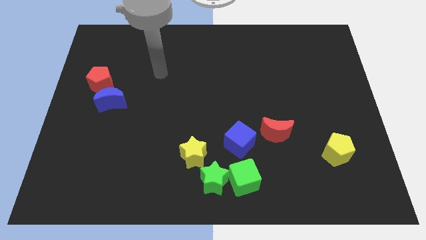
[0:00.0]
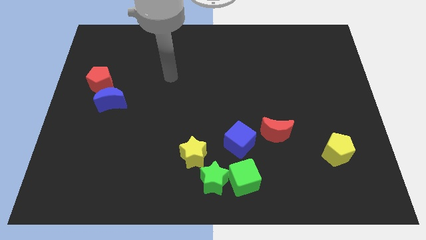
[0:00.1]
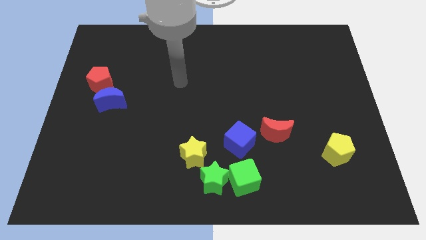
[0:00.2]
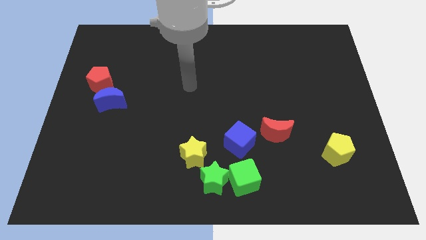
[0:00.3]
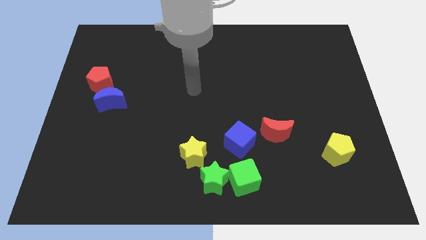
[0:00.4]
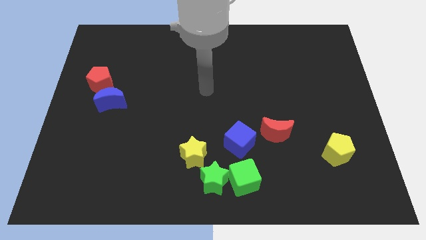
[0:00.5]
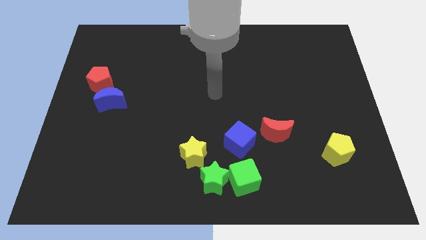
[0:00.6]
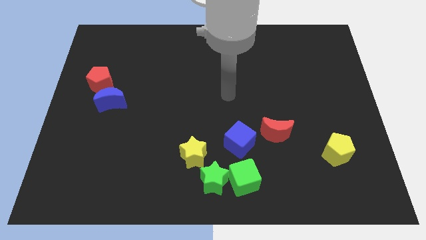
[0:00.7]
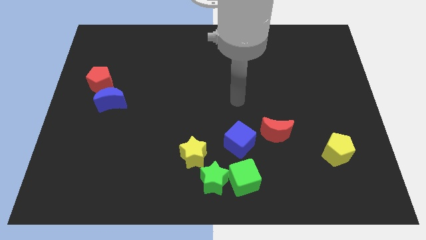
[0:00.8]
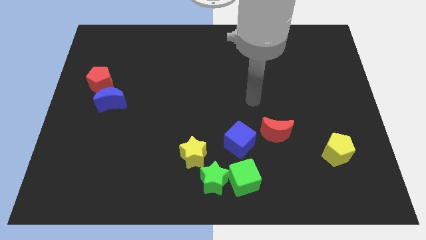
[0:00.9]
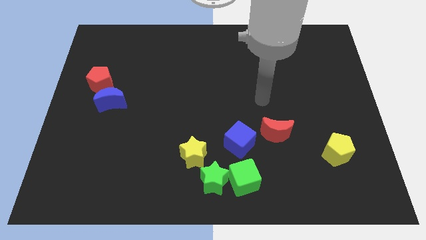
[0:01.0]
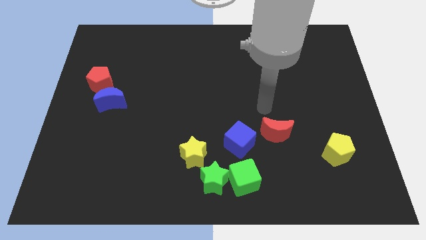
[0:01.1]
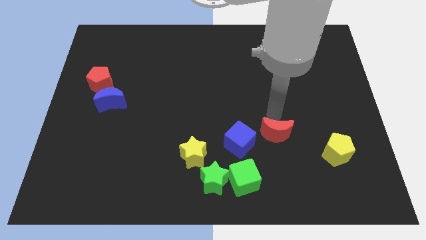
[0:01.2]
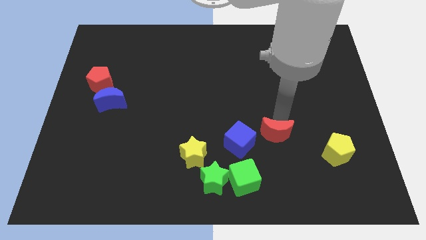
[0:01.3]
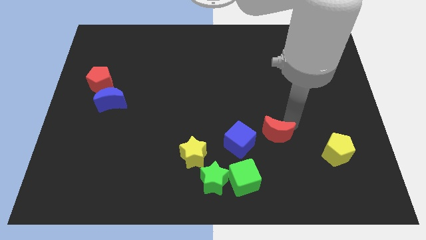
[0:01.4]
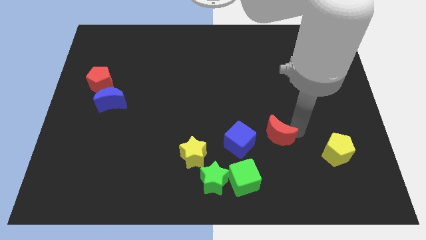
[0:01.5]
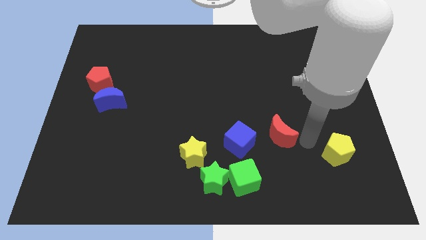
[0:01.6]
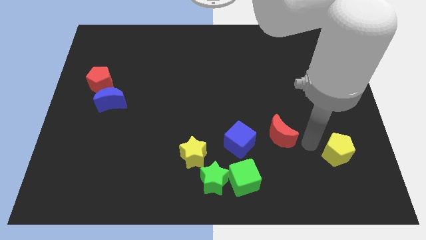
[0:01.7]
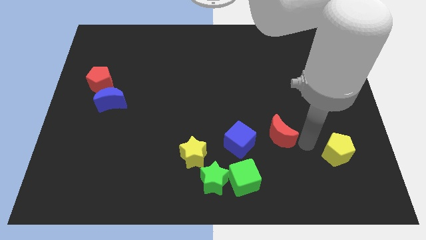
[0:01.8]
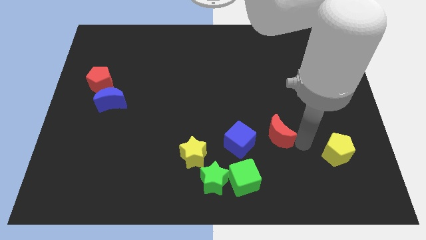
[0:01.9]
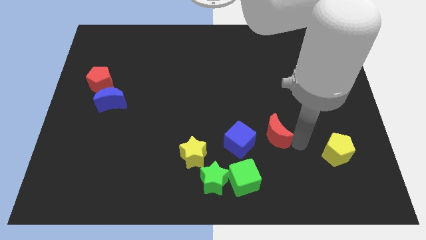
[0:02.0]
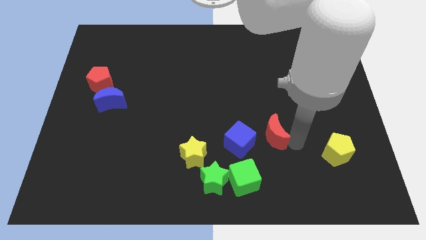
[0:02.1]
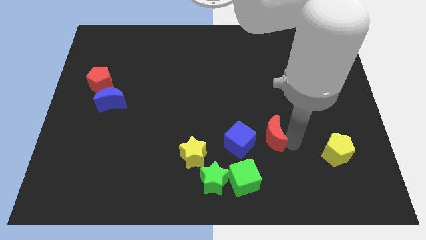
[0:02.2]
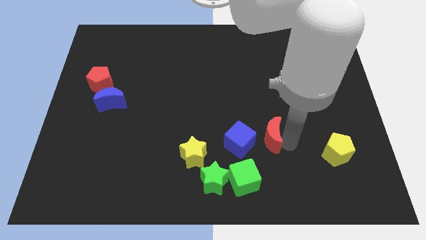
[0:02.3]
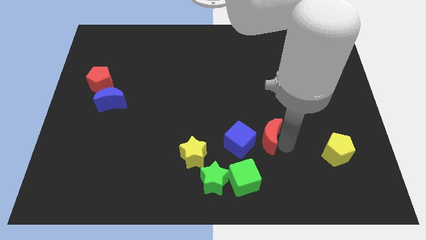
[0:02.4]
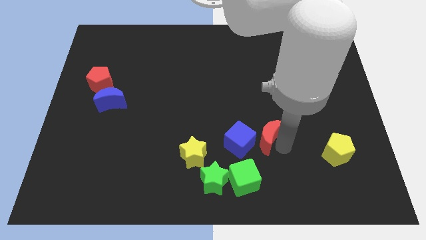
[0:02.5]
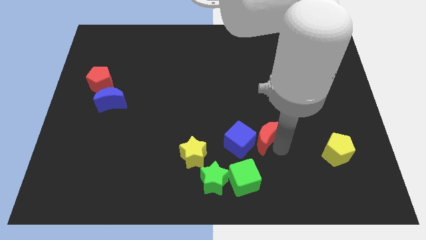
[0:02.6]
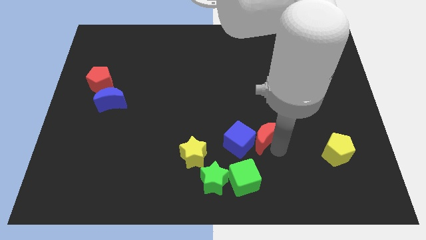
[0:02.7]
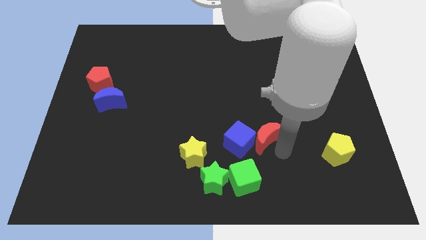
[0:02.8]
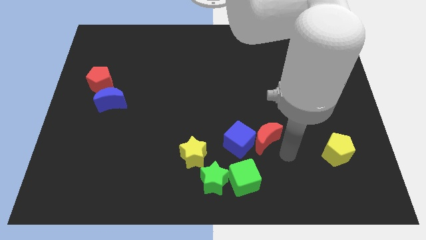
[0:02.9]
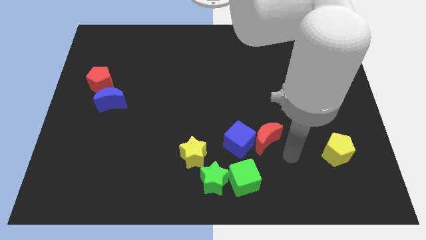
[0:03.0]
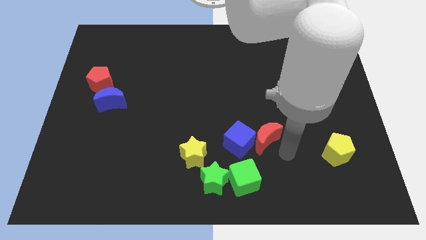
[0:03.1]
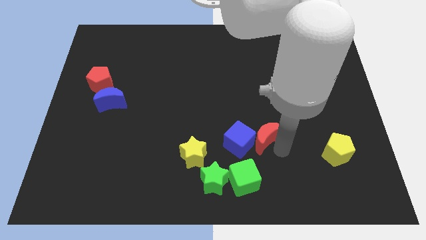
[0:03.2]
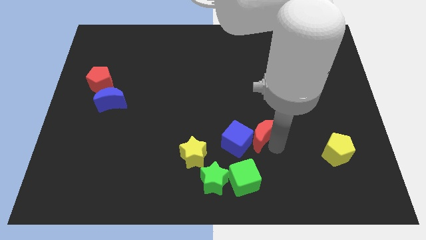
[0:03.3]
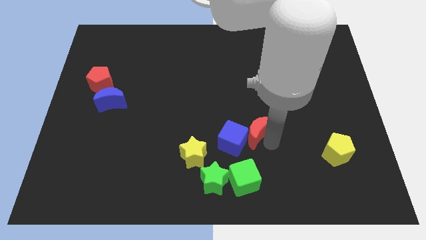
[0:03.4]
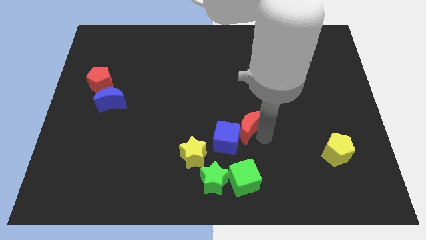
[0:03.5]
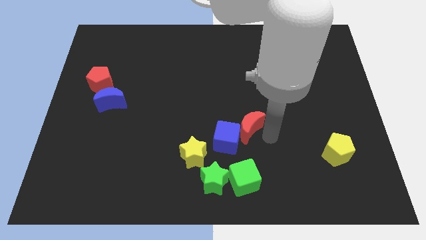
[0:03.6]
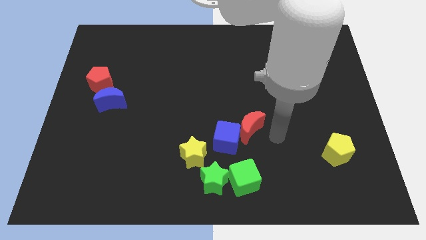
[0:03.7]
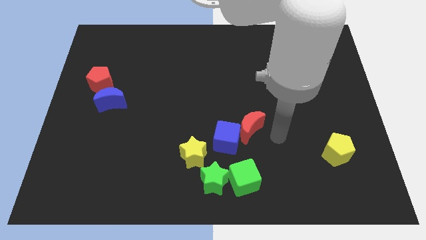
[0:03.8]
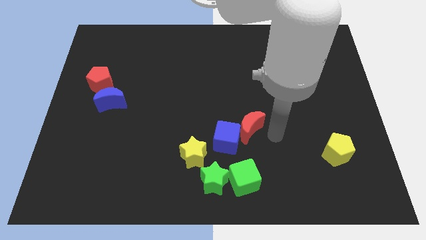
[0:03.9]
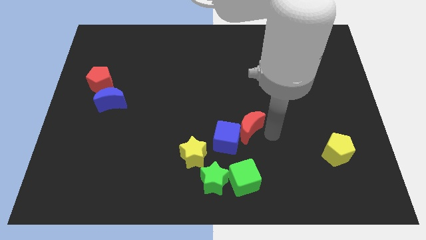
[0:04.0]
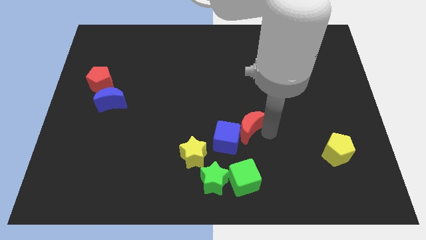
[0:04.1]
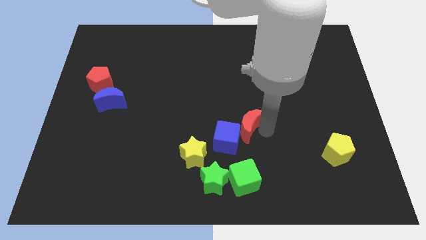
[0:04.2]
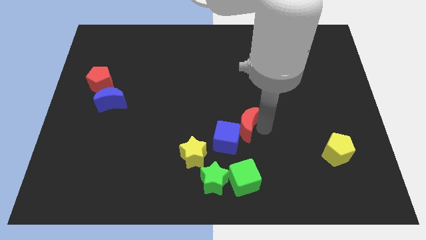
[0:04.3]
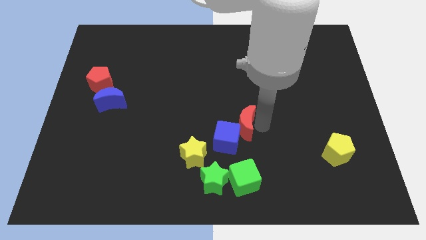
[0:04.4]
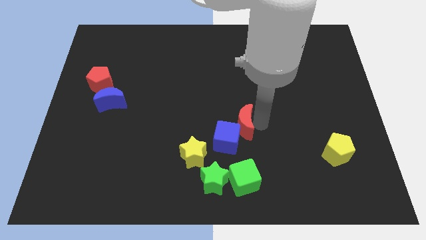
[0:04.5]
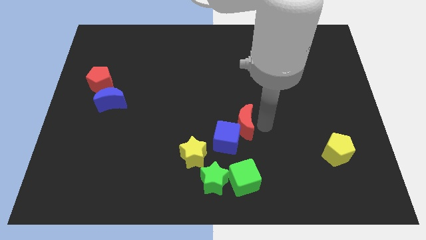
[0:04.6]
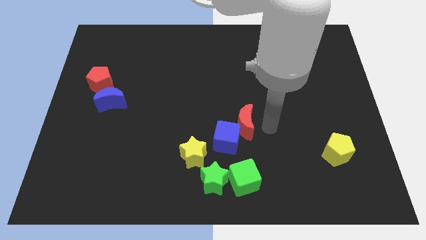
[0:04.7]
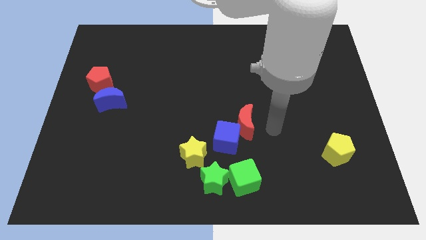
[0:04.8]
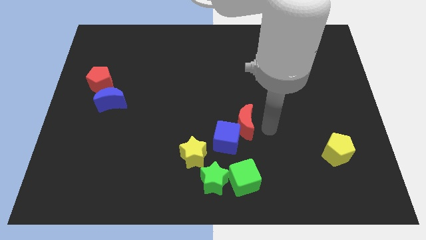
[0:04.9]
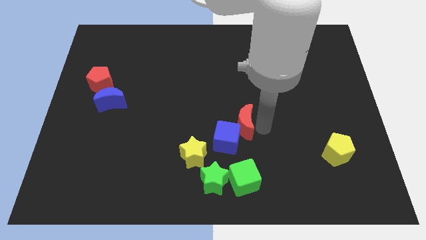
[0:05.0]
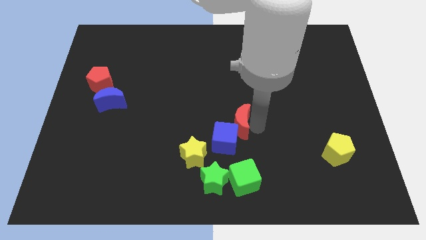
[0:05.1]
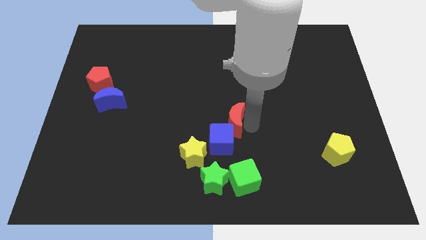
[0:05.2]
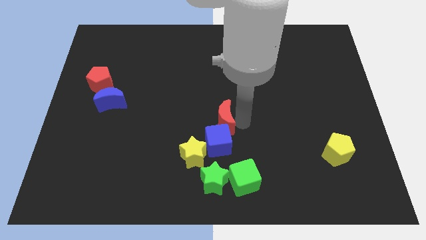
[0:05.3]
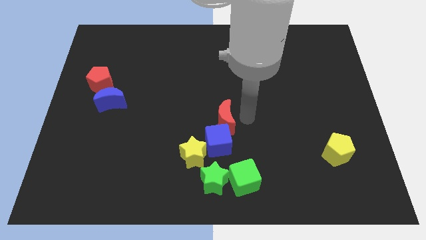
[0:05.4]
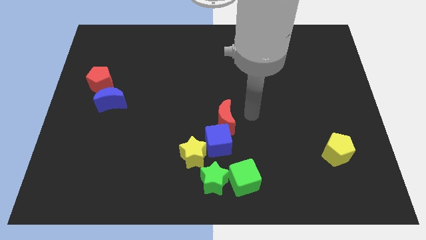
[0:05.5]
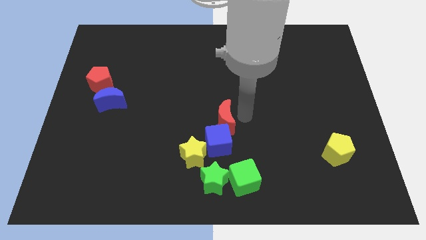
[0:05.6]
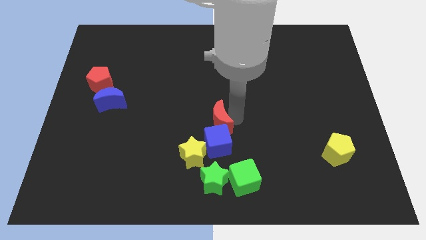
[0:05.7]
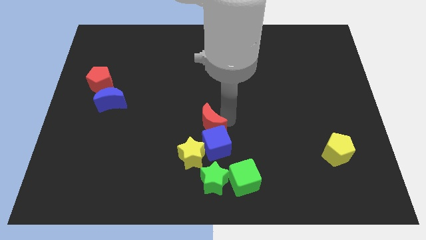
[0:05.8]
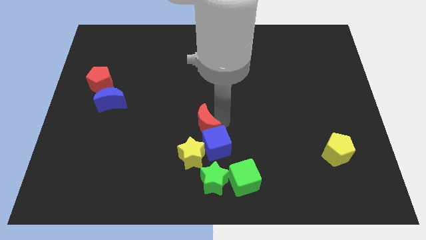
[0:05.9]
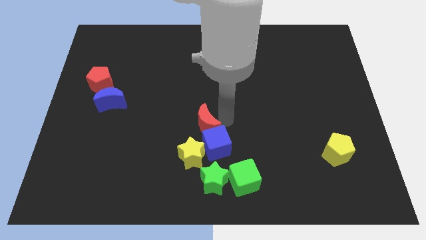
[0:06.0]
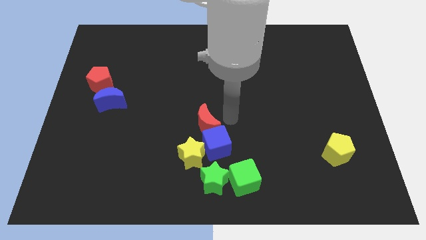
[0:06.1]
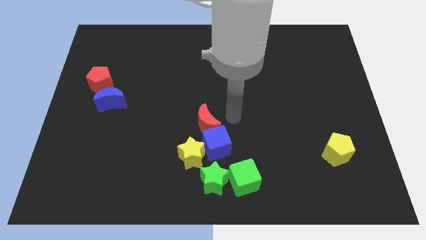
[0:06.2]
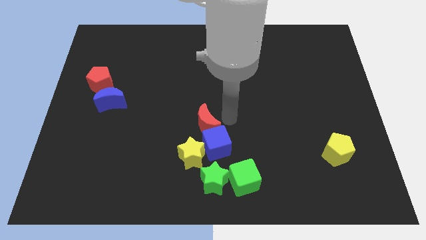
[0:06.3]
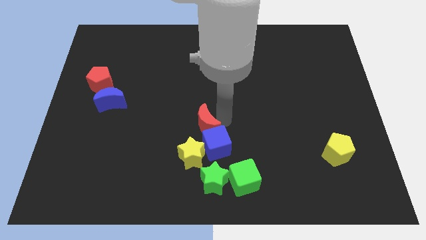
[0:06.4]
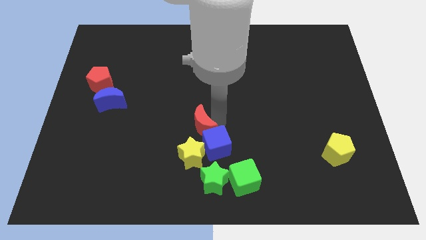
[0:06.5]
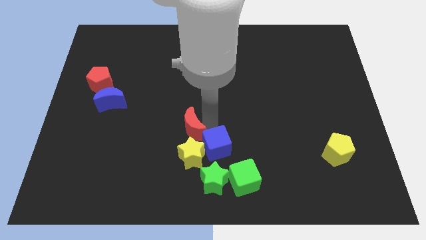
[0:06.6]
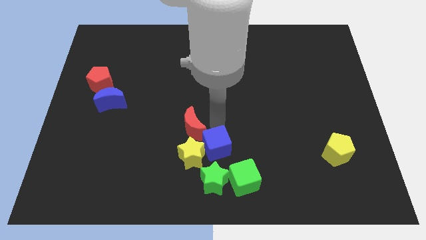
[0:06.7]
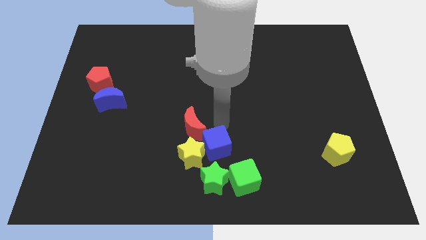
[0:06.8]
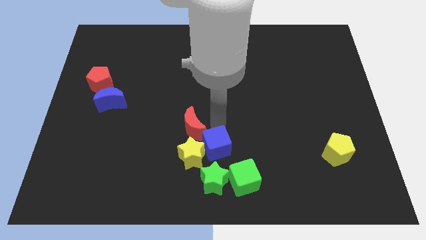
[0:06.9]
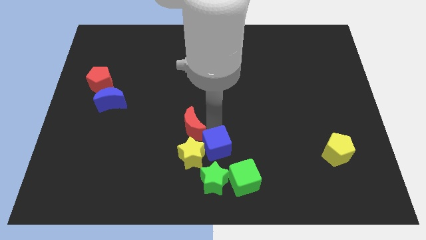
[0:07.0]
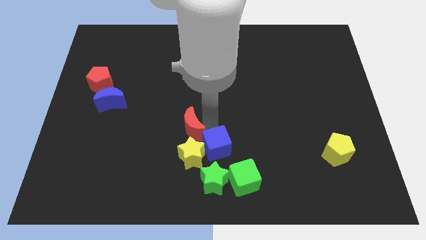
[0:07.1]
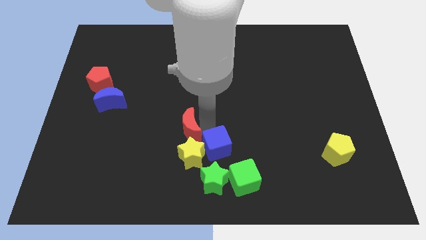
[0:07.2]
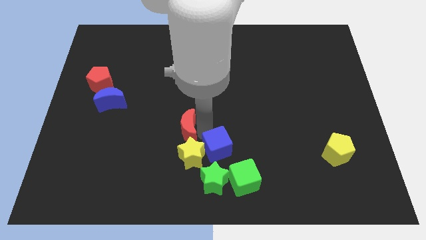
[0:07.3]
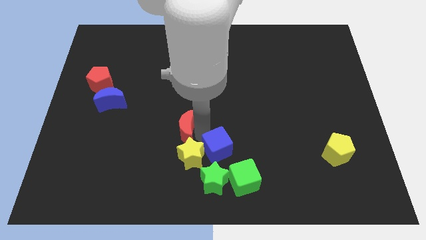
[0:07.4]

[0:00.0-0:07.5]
slide the red moon to the left
